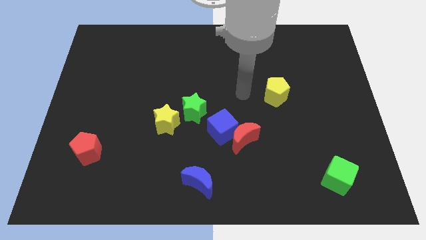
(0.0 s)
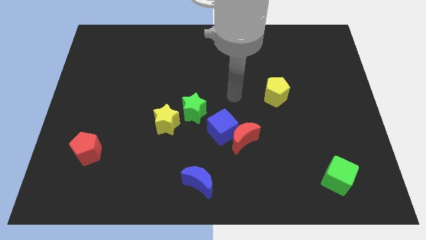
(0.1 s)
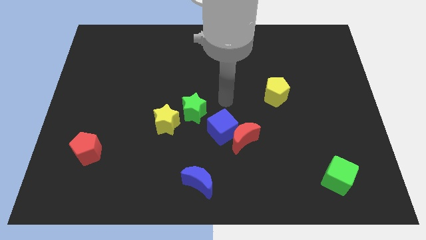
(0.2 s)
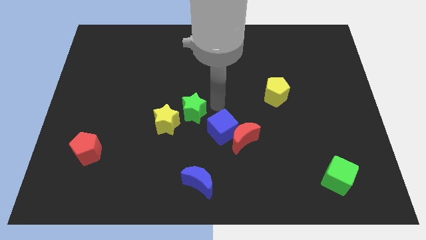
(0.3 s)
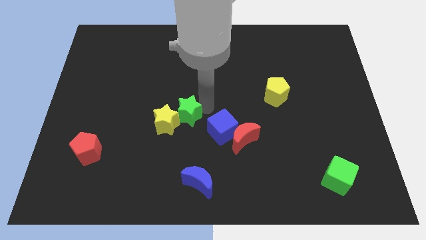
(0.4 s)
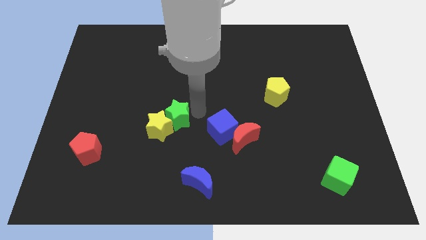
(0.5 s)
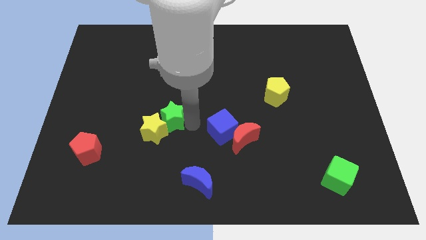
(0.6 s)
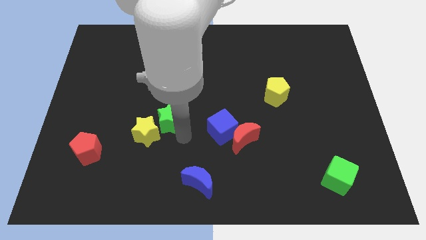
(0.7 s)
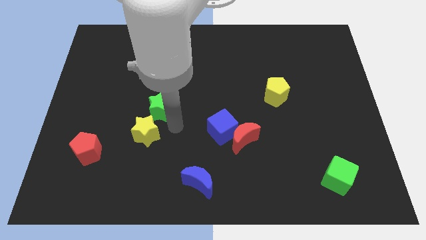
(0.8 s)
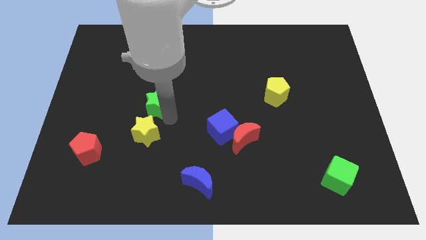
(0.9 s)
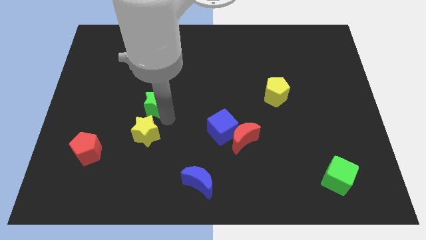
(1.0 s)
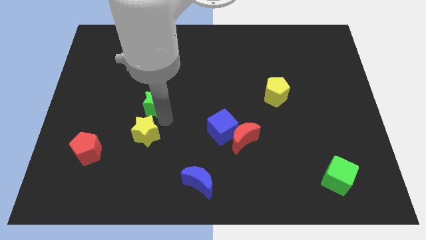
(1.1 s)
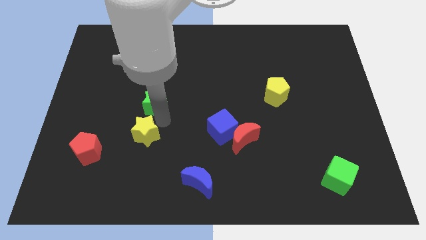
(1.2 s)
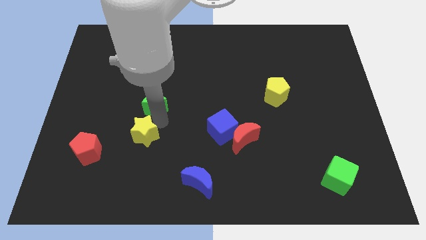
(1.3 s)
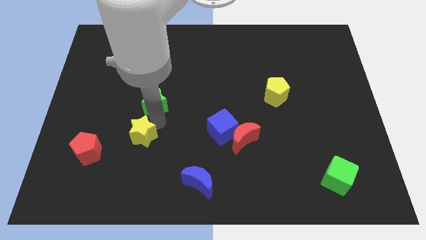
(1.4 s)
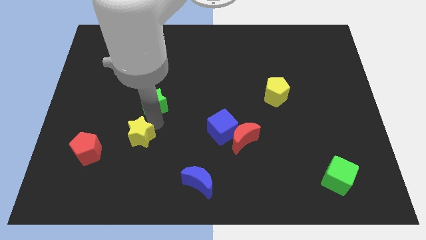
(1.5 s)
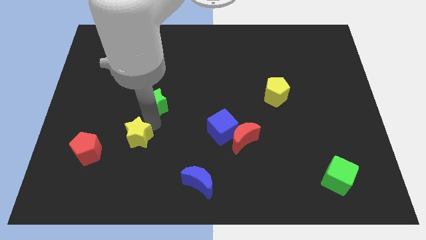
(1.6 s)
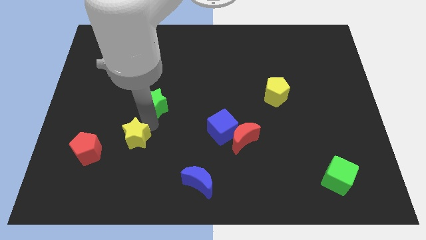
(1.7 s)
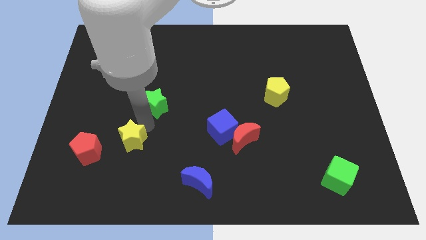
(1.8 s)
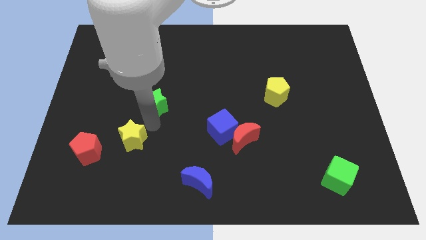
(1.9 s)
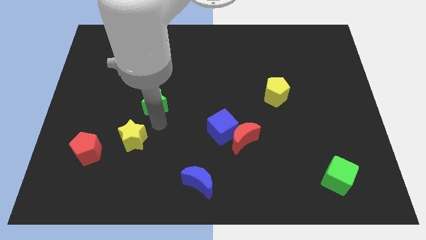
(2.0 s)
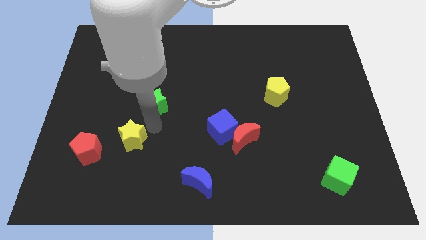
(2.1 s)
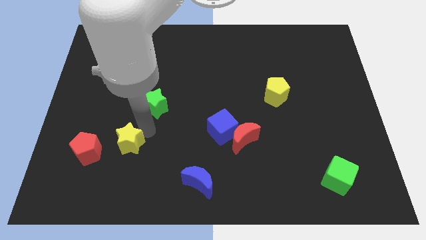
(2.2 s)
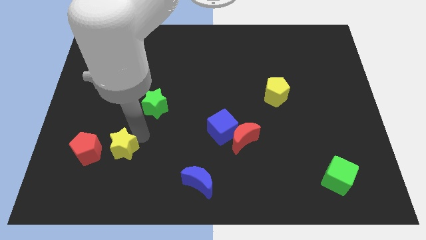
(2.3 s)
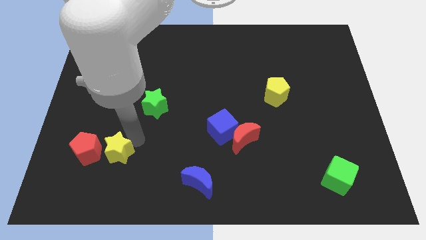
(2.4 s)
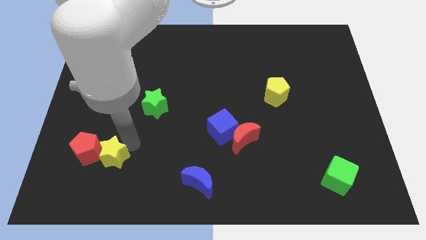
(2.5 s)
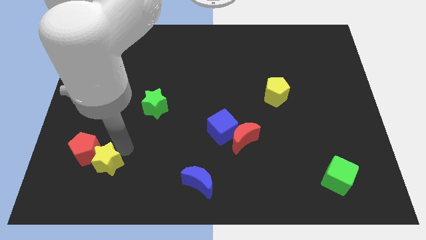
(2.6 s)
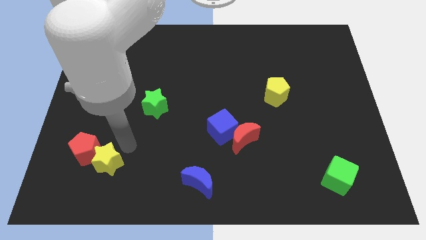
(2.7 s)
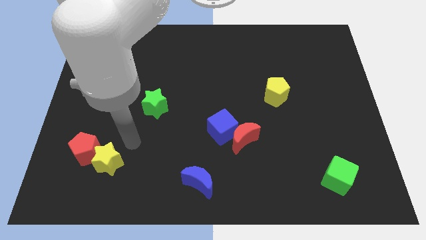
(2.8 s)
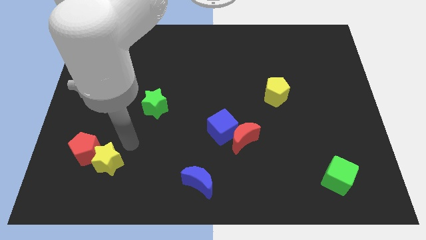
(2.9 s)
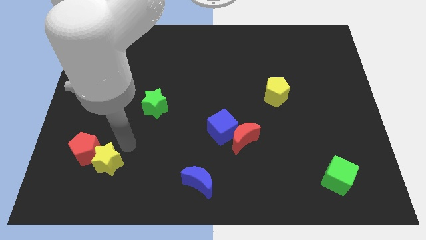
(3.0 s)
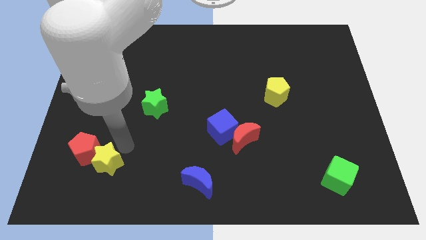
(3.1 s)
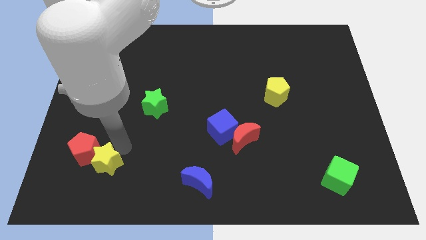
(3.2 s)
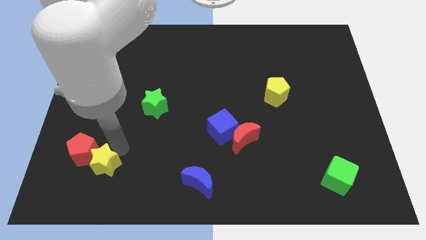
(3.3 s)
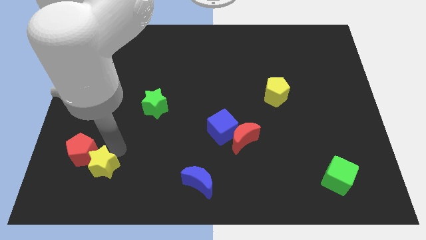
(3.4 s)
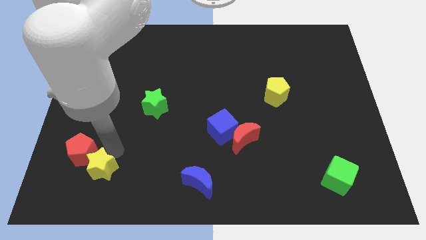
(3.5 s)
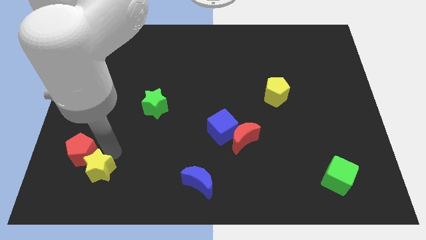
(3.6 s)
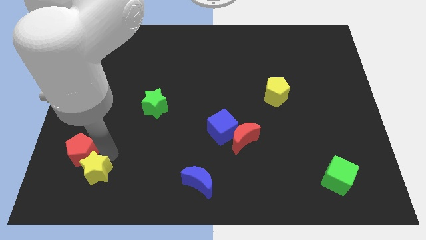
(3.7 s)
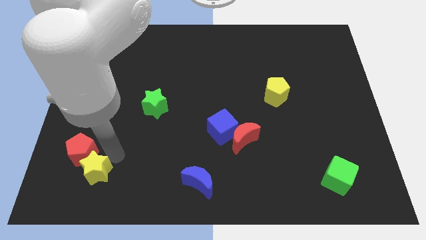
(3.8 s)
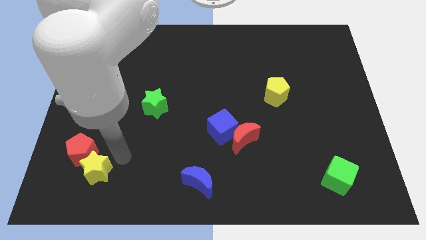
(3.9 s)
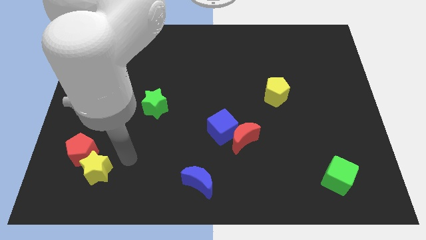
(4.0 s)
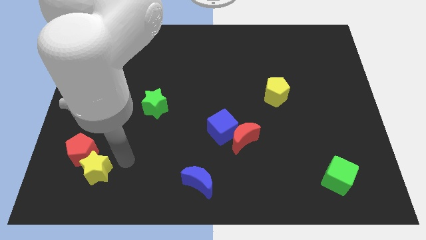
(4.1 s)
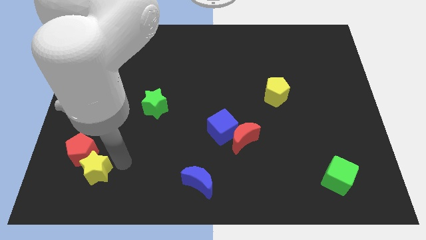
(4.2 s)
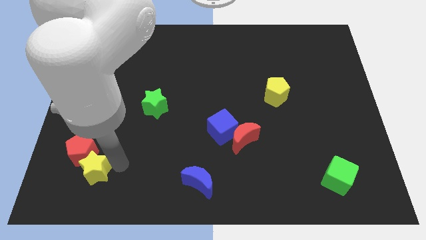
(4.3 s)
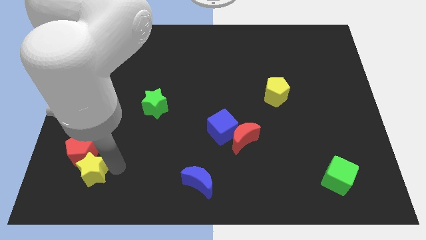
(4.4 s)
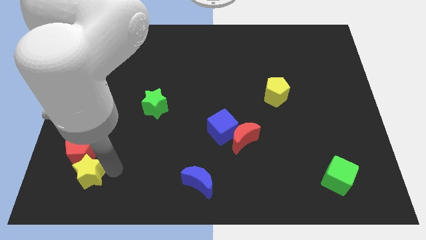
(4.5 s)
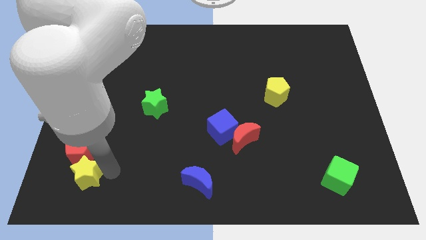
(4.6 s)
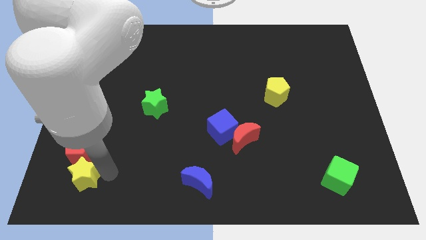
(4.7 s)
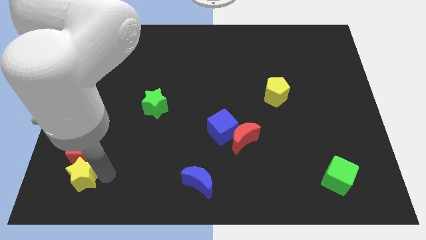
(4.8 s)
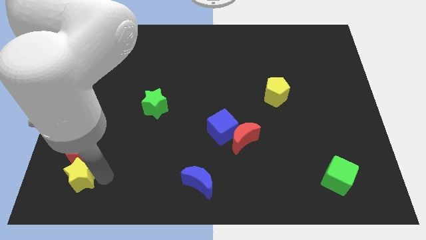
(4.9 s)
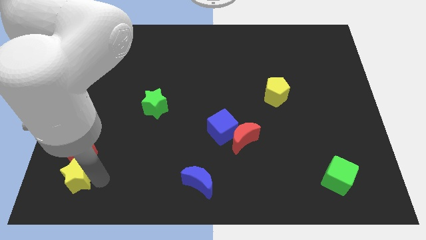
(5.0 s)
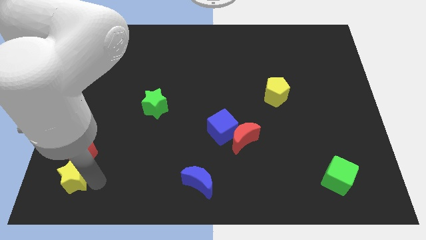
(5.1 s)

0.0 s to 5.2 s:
slide the yellow star to the lower left corner

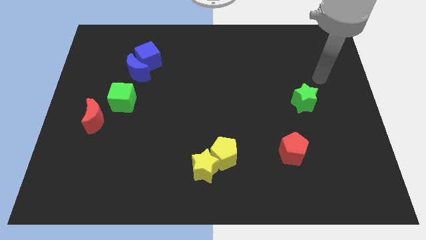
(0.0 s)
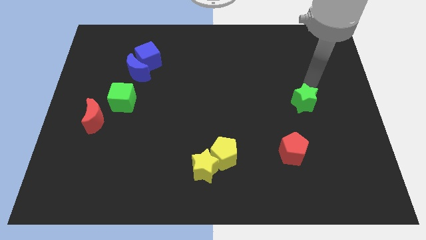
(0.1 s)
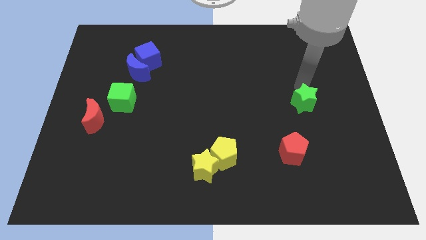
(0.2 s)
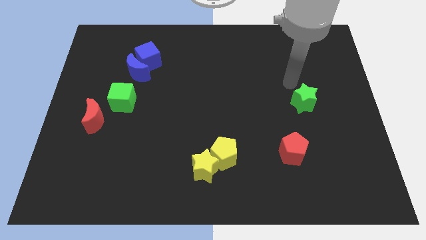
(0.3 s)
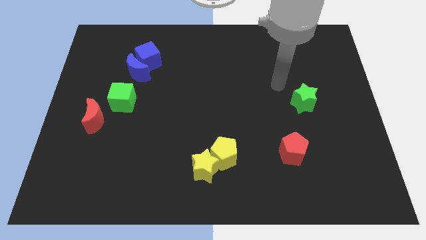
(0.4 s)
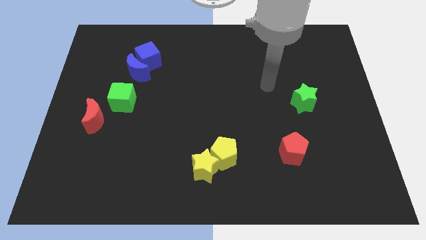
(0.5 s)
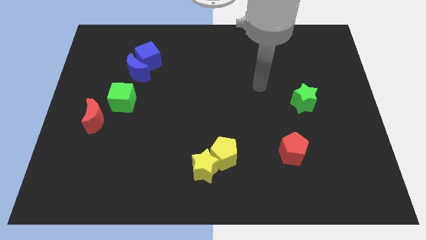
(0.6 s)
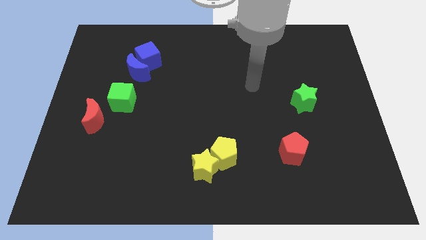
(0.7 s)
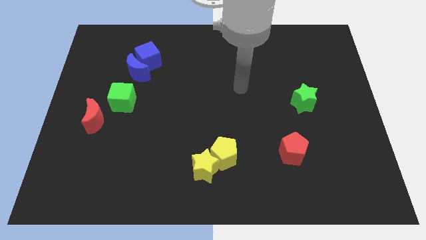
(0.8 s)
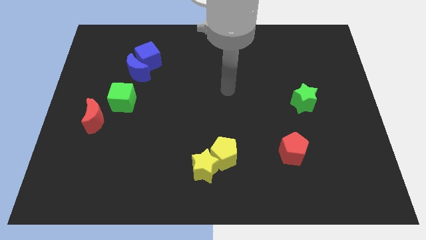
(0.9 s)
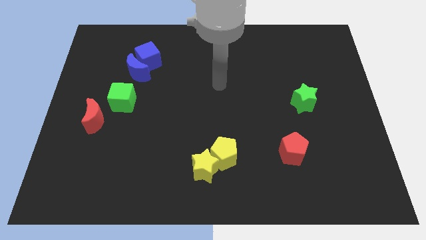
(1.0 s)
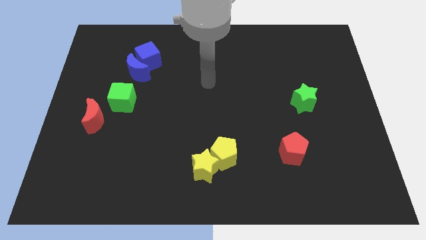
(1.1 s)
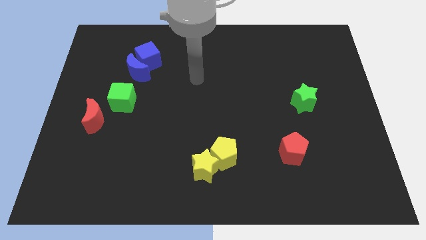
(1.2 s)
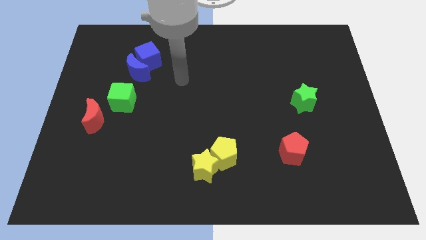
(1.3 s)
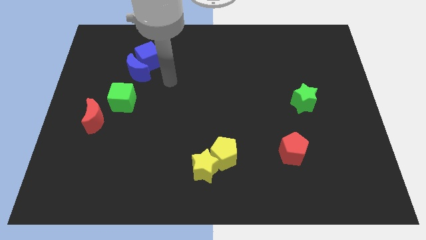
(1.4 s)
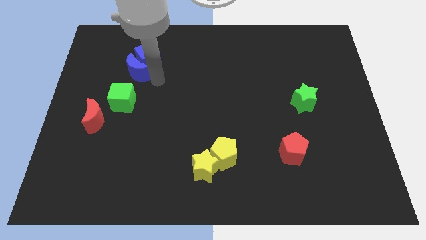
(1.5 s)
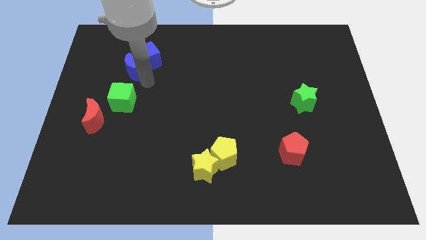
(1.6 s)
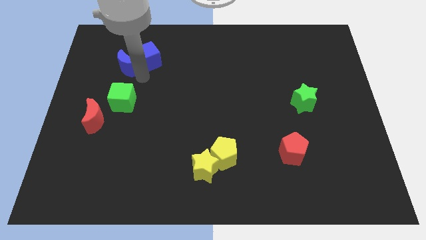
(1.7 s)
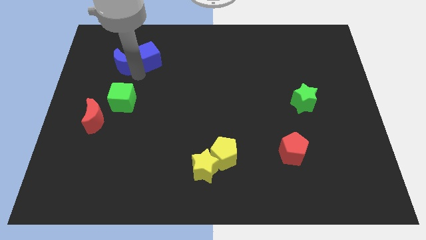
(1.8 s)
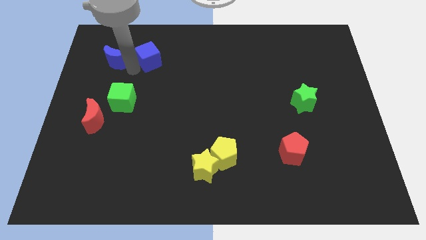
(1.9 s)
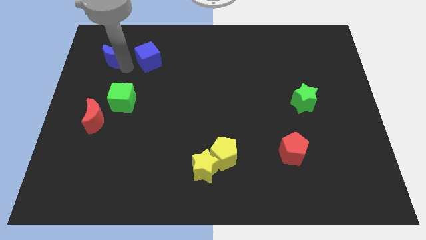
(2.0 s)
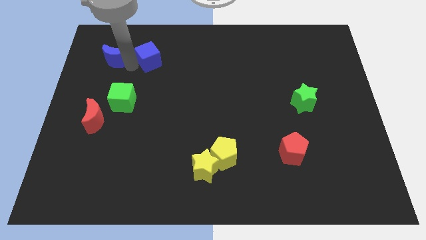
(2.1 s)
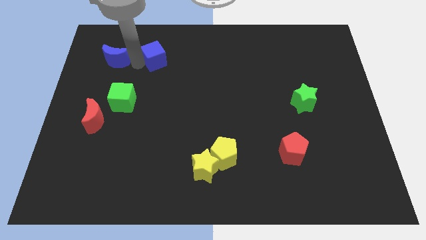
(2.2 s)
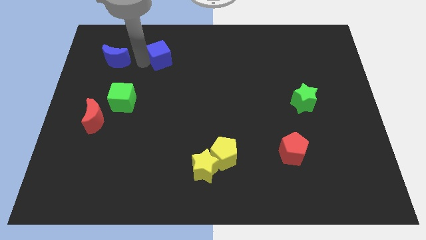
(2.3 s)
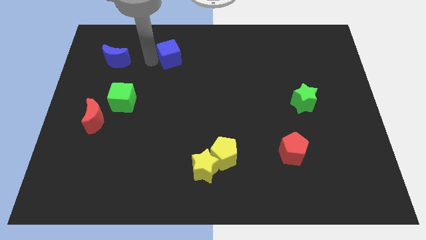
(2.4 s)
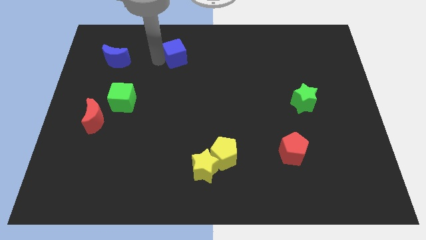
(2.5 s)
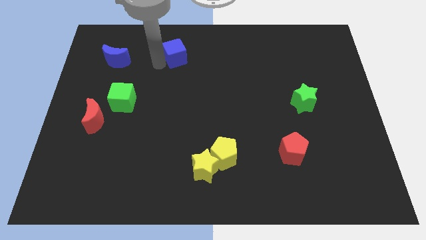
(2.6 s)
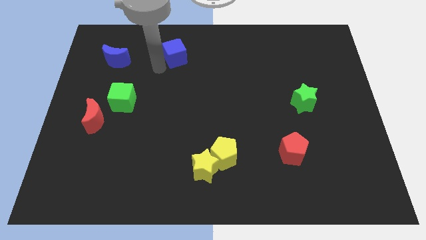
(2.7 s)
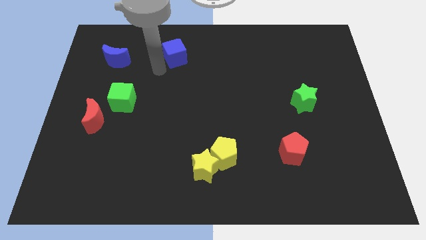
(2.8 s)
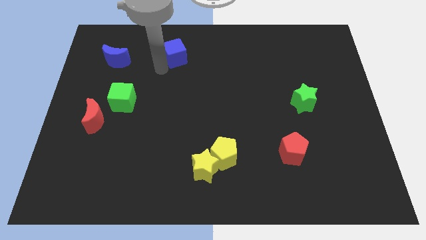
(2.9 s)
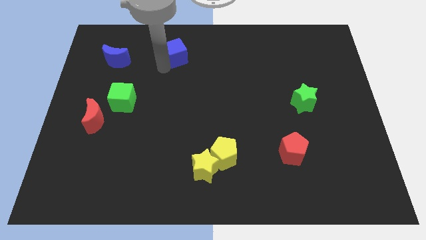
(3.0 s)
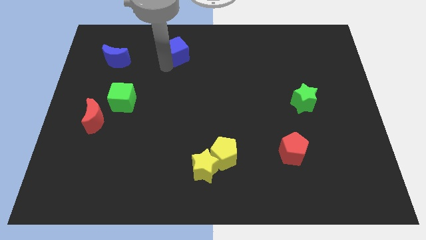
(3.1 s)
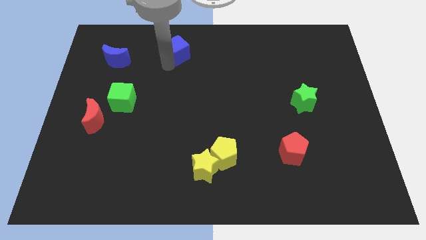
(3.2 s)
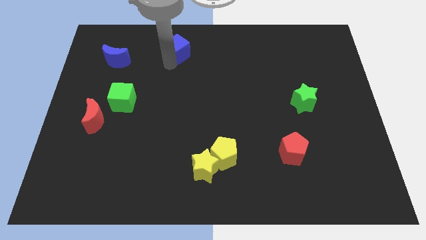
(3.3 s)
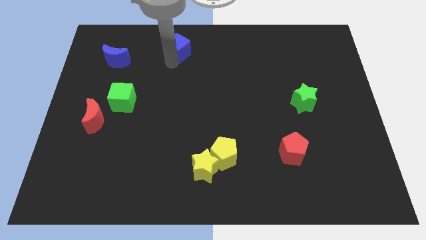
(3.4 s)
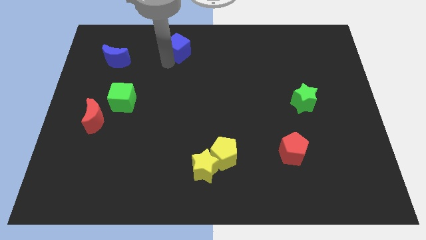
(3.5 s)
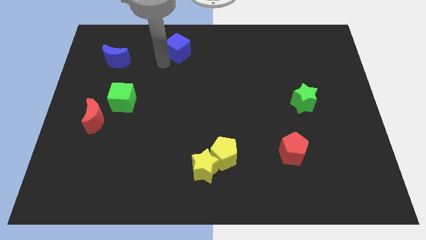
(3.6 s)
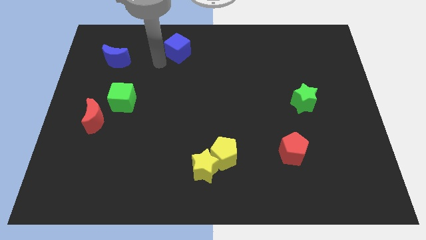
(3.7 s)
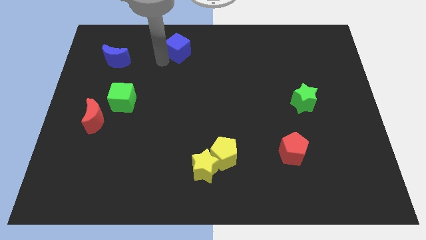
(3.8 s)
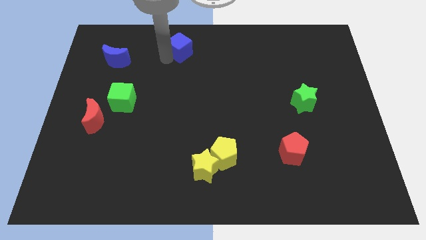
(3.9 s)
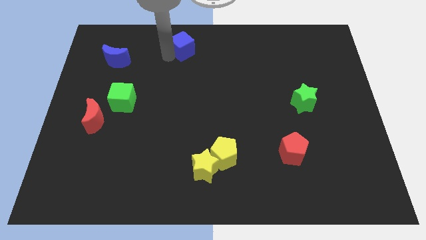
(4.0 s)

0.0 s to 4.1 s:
move the blue cube to the towards your base
